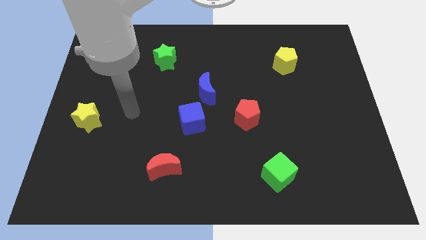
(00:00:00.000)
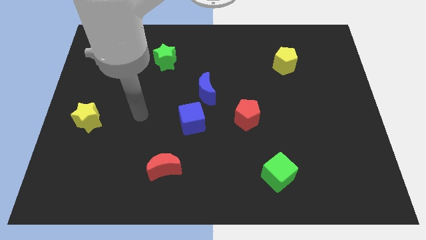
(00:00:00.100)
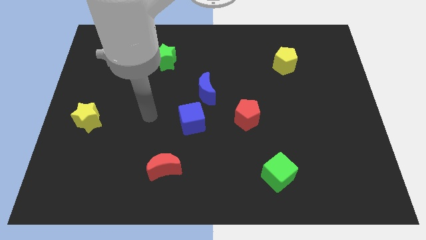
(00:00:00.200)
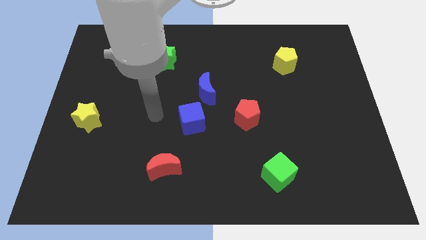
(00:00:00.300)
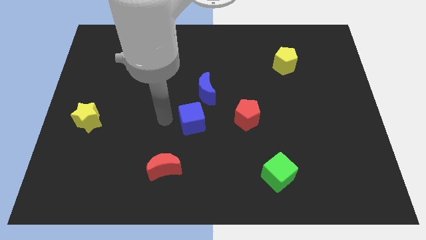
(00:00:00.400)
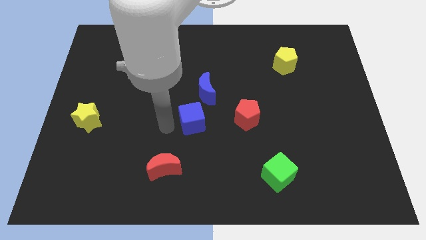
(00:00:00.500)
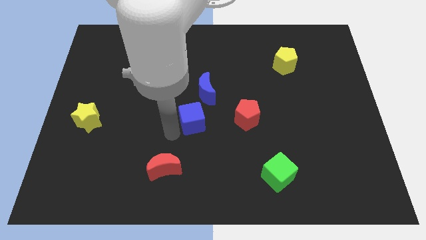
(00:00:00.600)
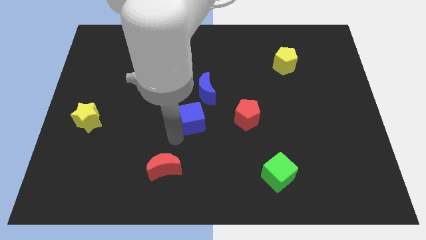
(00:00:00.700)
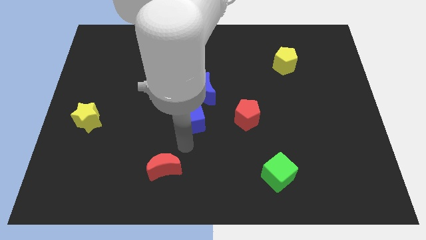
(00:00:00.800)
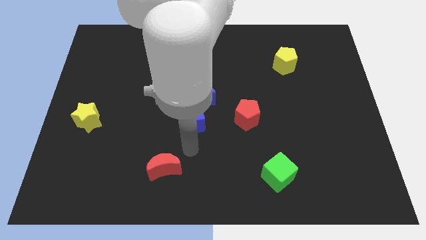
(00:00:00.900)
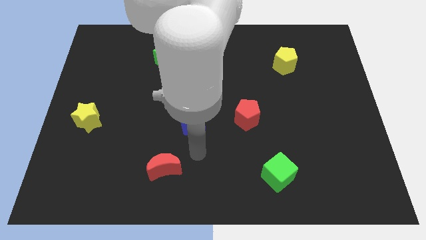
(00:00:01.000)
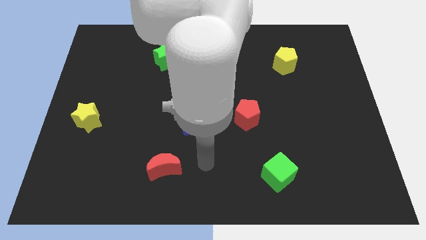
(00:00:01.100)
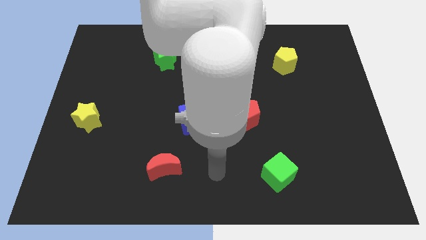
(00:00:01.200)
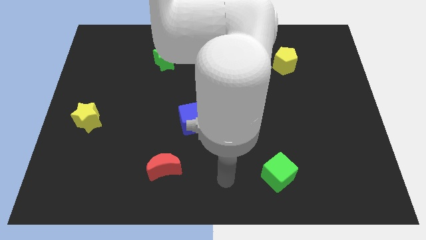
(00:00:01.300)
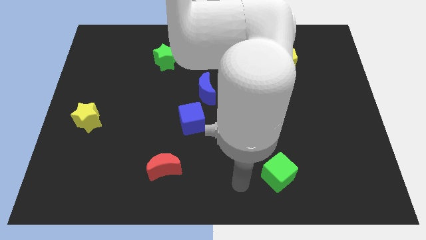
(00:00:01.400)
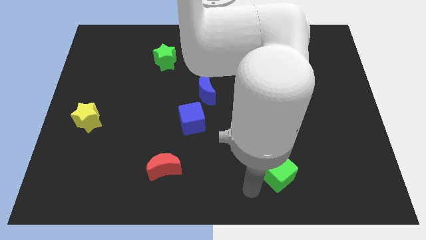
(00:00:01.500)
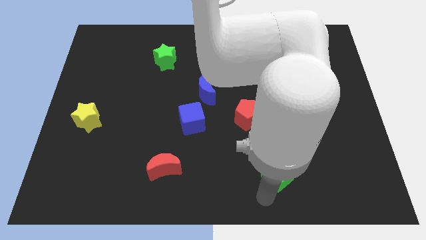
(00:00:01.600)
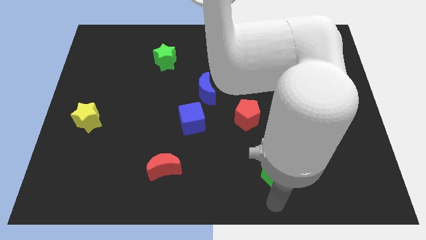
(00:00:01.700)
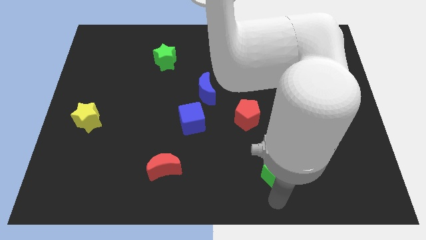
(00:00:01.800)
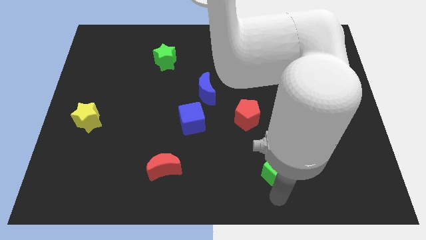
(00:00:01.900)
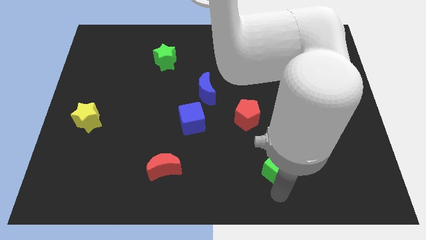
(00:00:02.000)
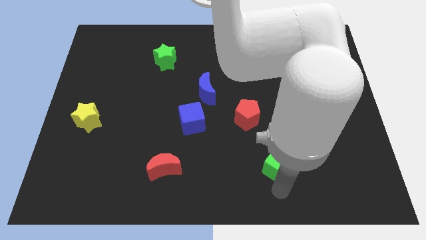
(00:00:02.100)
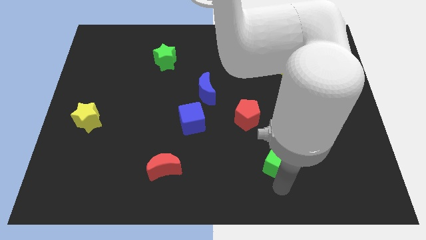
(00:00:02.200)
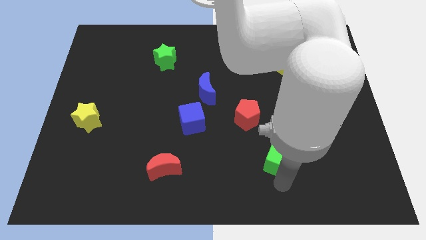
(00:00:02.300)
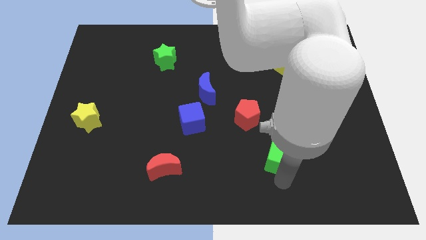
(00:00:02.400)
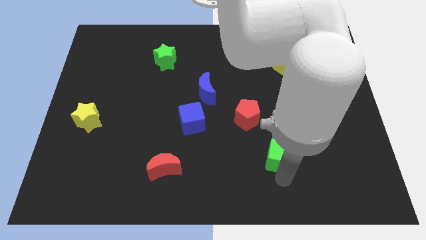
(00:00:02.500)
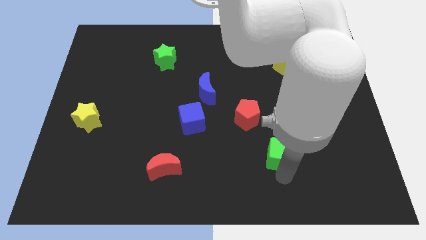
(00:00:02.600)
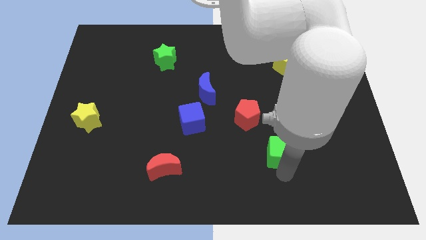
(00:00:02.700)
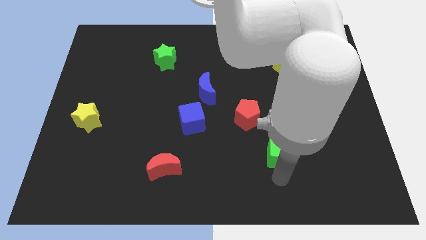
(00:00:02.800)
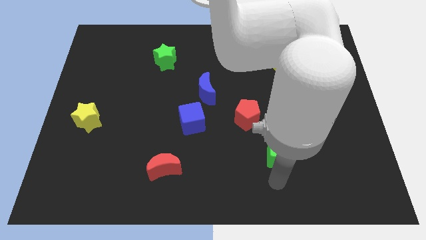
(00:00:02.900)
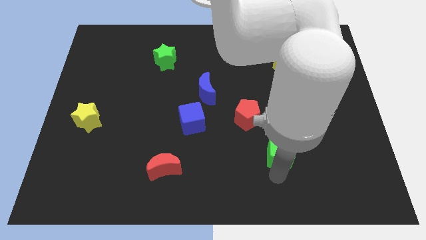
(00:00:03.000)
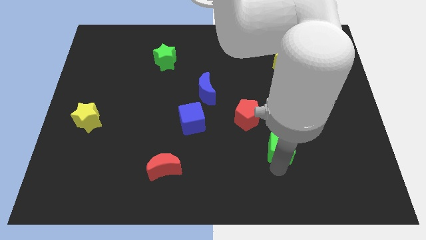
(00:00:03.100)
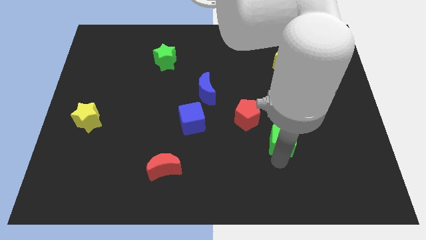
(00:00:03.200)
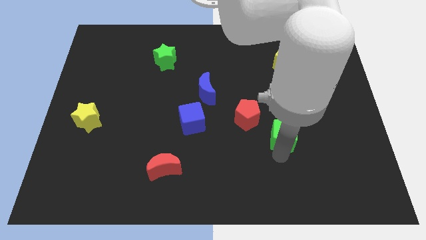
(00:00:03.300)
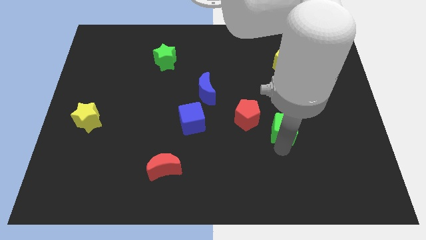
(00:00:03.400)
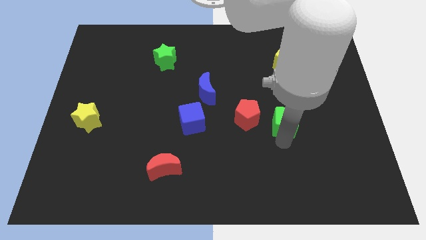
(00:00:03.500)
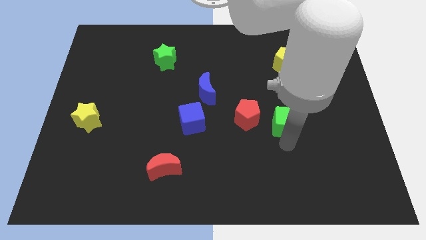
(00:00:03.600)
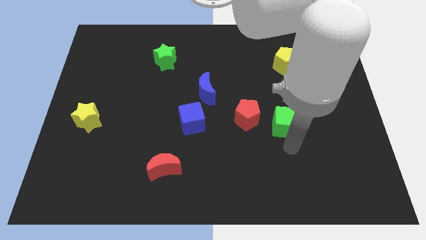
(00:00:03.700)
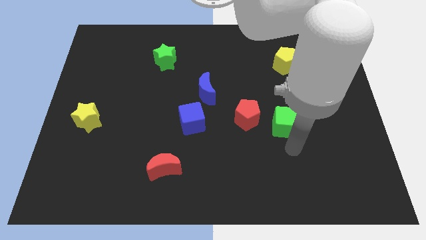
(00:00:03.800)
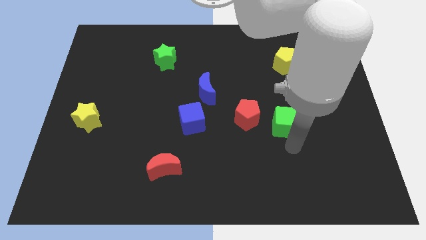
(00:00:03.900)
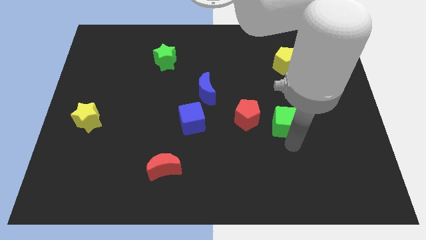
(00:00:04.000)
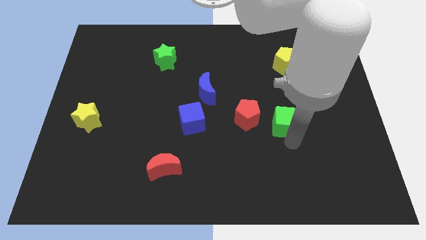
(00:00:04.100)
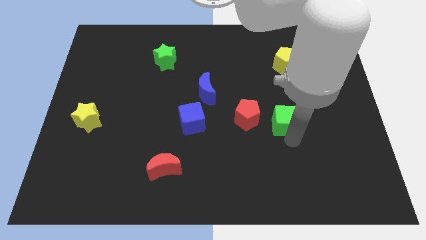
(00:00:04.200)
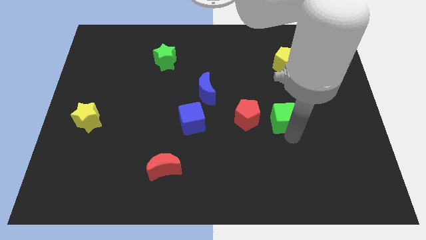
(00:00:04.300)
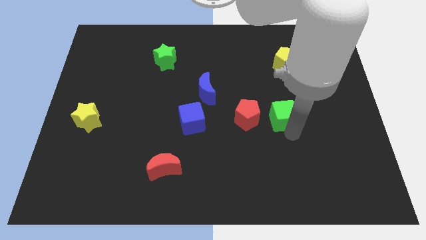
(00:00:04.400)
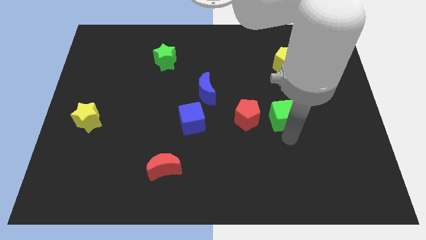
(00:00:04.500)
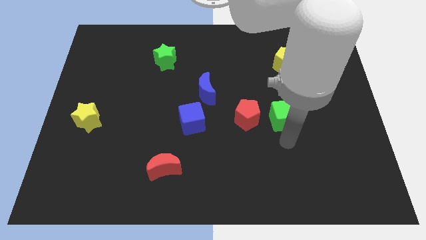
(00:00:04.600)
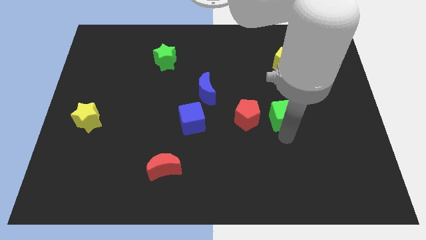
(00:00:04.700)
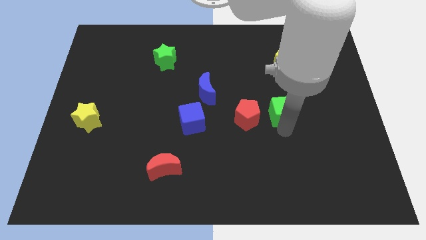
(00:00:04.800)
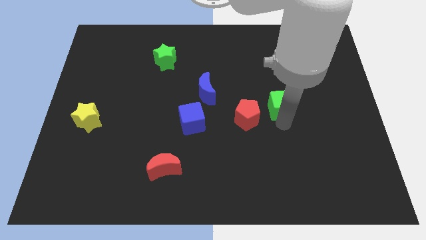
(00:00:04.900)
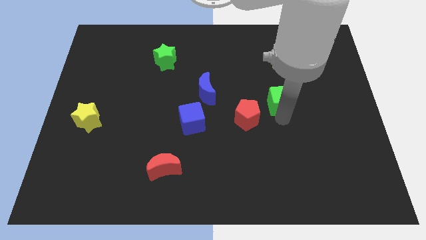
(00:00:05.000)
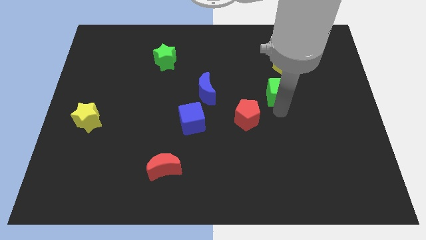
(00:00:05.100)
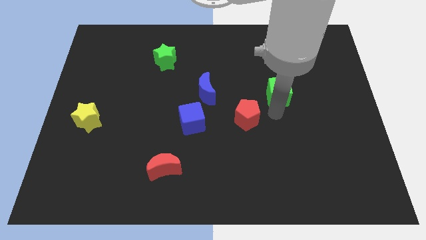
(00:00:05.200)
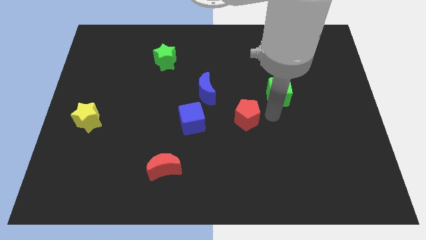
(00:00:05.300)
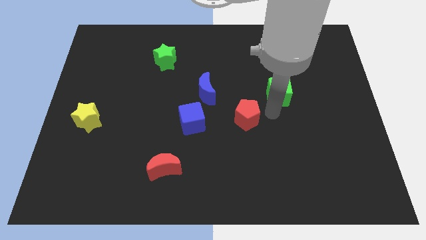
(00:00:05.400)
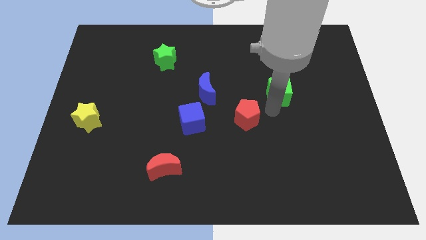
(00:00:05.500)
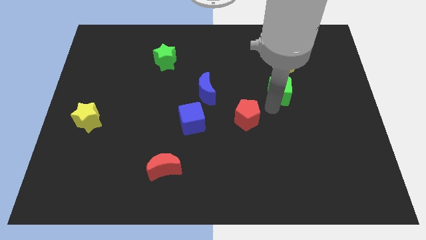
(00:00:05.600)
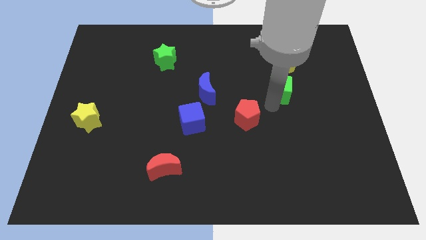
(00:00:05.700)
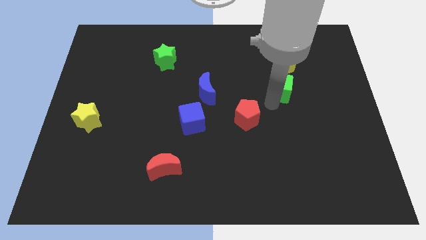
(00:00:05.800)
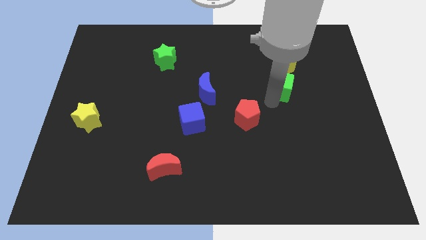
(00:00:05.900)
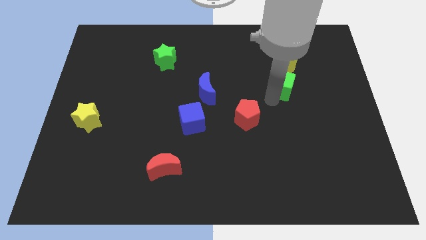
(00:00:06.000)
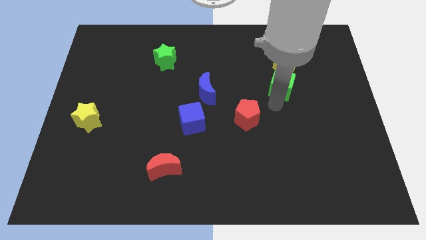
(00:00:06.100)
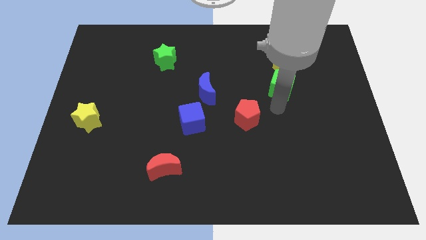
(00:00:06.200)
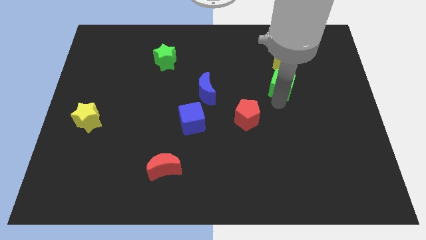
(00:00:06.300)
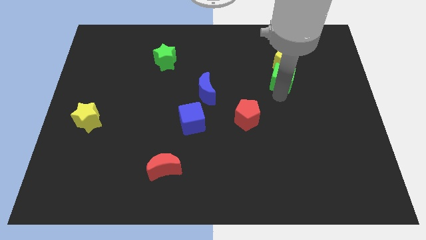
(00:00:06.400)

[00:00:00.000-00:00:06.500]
push the green cube next to the yellow pentagon

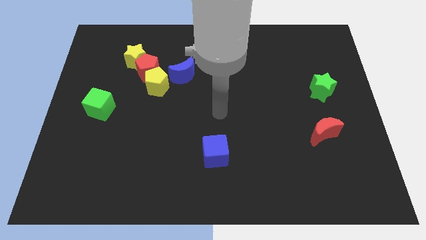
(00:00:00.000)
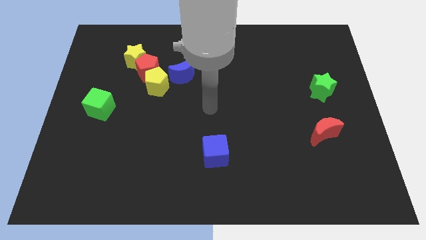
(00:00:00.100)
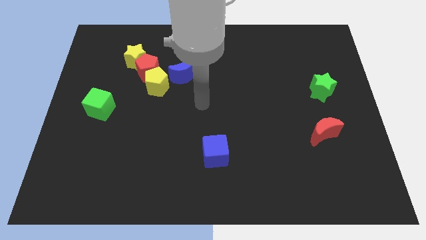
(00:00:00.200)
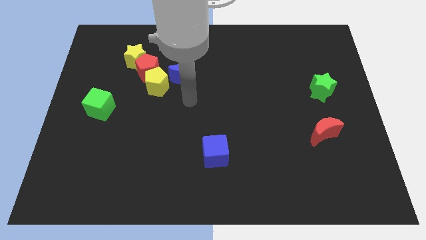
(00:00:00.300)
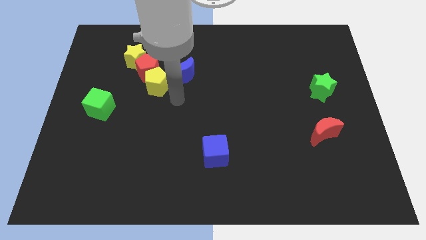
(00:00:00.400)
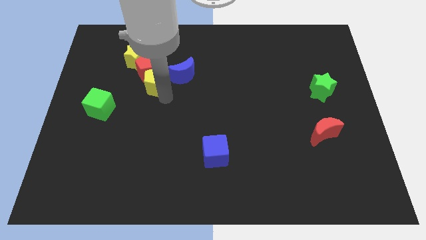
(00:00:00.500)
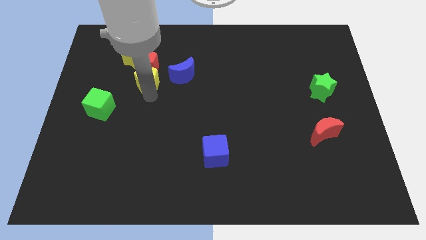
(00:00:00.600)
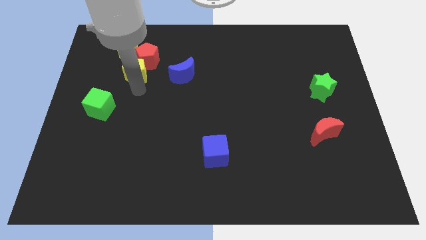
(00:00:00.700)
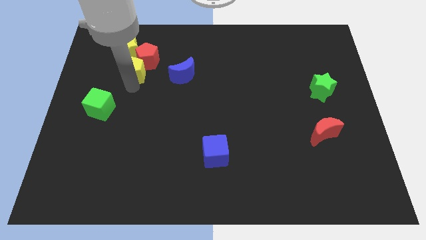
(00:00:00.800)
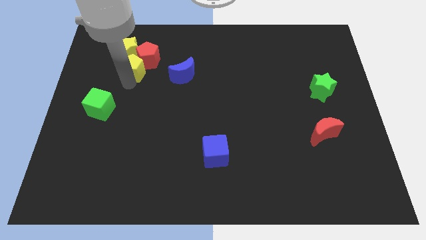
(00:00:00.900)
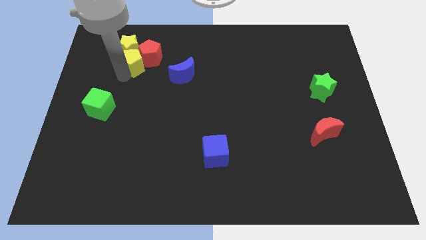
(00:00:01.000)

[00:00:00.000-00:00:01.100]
slide the yellow star close to the yellow pentagon

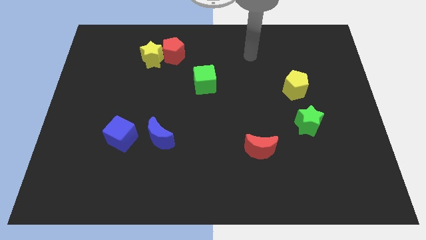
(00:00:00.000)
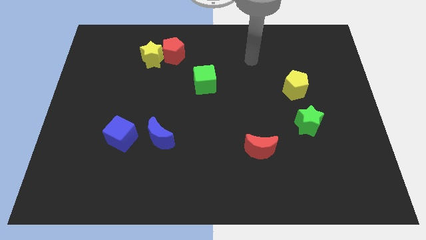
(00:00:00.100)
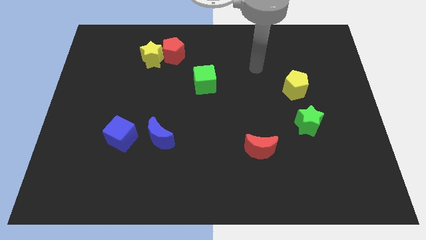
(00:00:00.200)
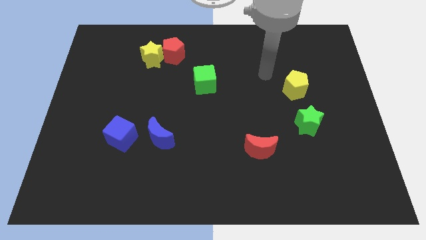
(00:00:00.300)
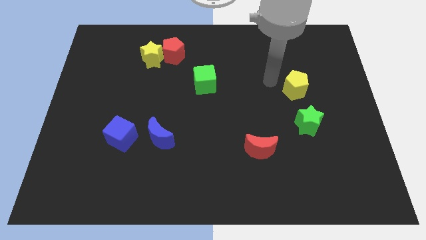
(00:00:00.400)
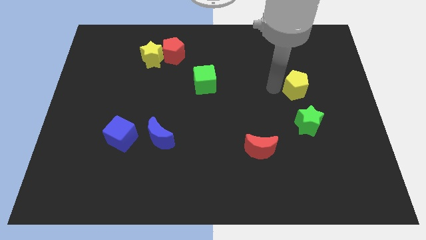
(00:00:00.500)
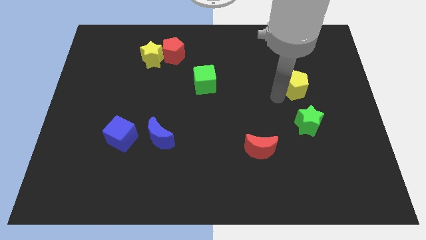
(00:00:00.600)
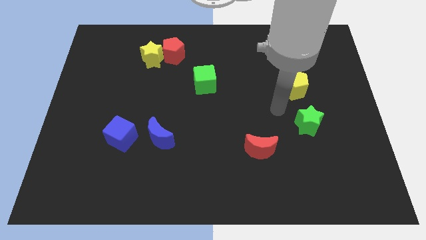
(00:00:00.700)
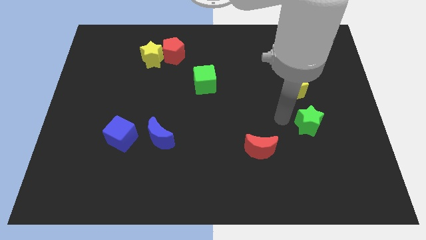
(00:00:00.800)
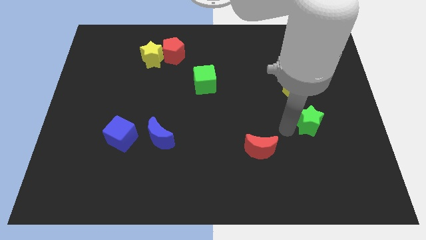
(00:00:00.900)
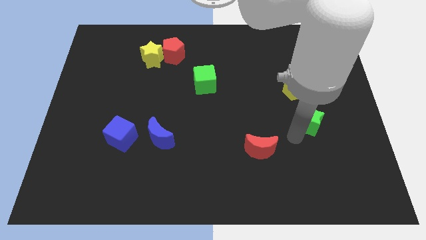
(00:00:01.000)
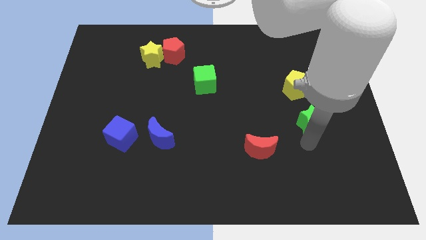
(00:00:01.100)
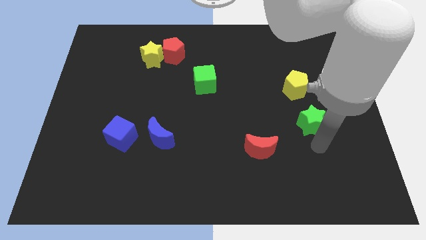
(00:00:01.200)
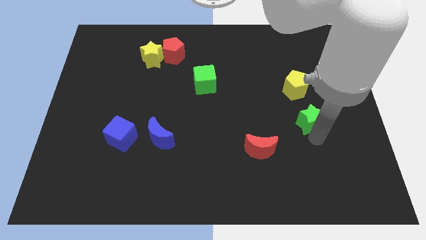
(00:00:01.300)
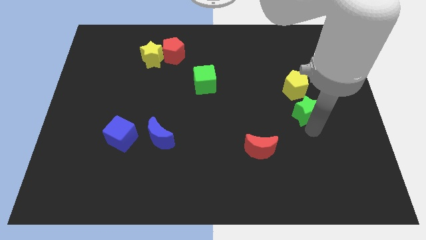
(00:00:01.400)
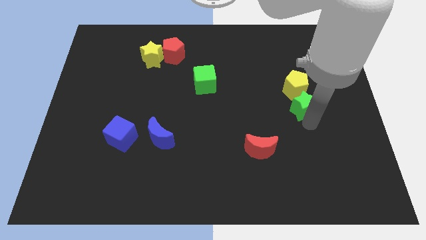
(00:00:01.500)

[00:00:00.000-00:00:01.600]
put the green star towards the yellow pentagon
